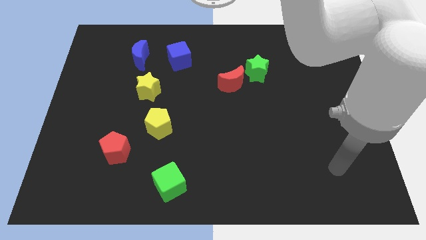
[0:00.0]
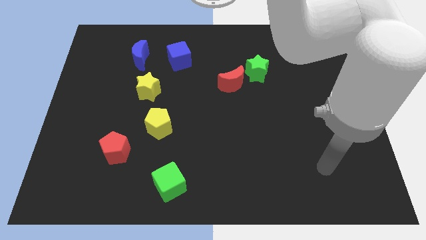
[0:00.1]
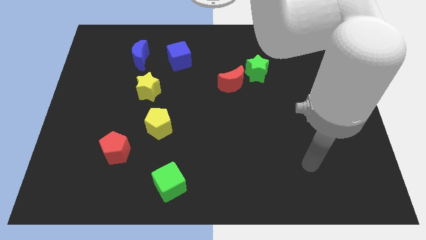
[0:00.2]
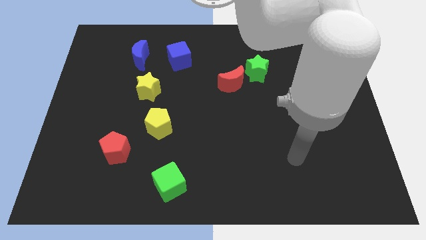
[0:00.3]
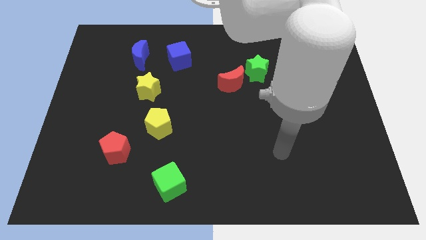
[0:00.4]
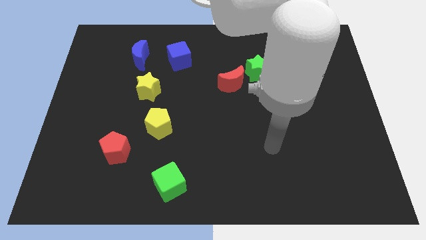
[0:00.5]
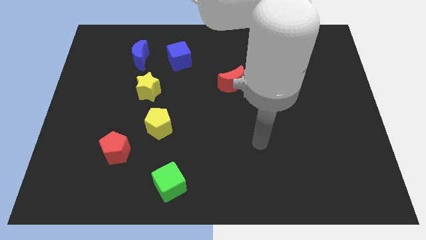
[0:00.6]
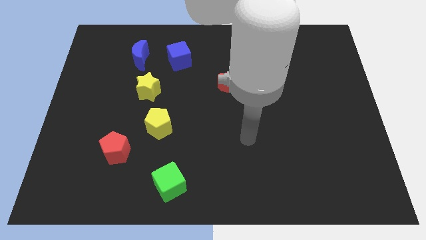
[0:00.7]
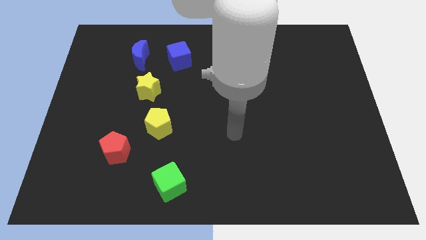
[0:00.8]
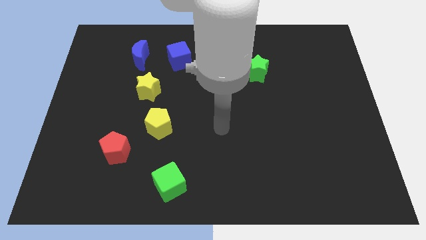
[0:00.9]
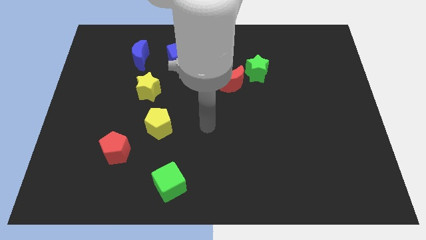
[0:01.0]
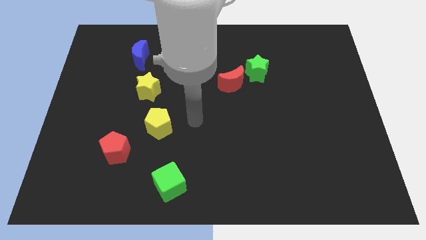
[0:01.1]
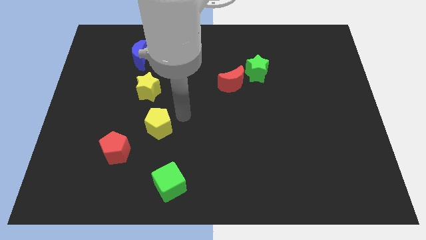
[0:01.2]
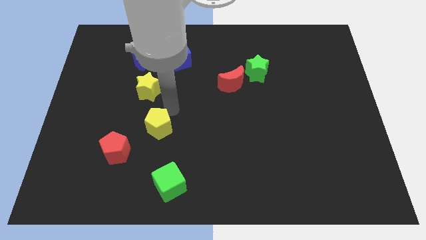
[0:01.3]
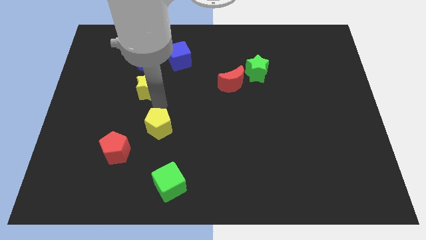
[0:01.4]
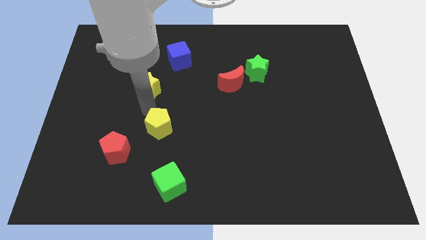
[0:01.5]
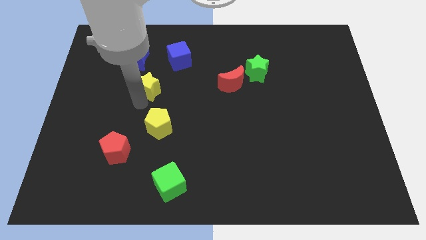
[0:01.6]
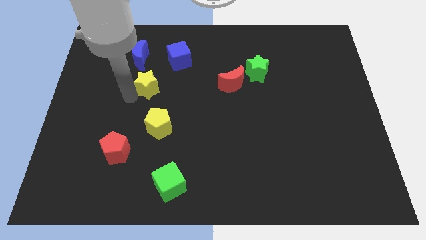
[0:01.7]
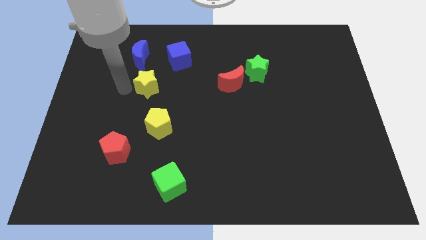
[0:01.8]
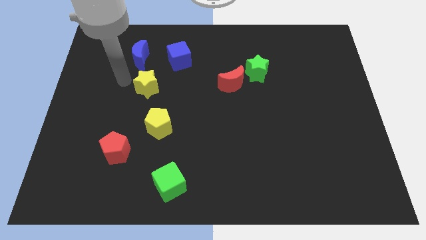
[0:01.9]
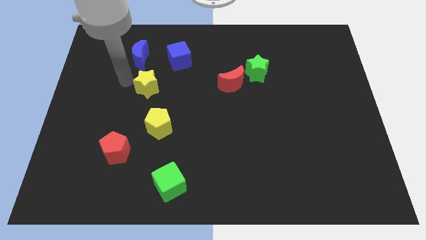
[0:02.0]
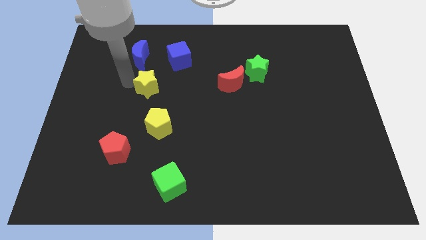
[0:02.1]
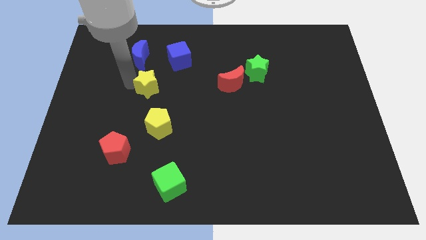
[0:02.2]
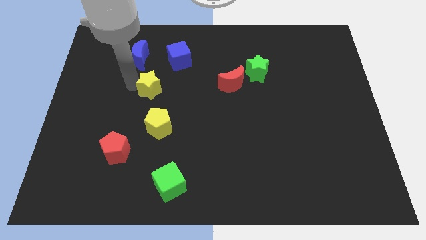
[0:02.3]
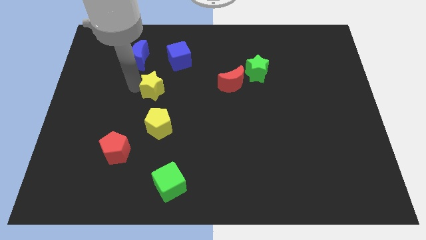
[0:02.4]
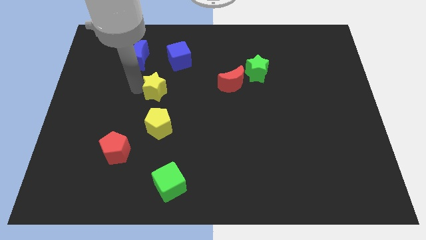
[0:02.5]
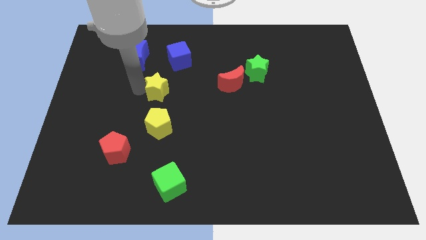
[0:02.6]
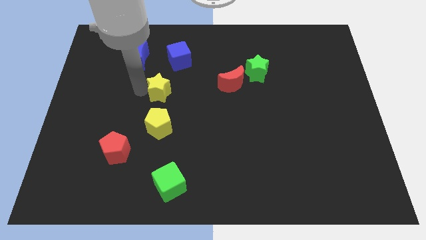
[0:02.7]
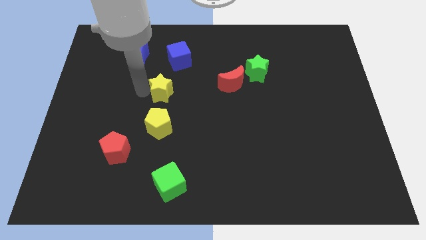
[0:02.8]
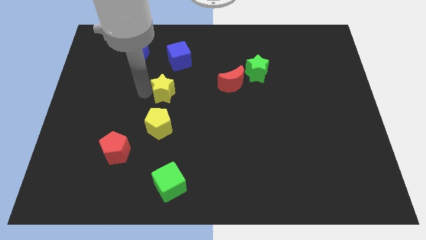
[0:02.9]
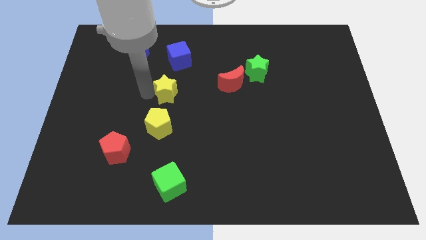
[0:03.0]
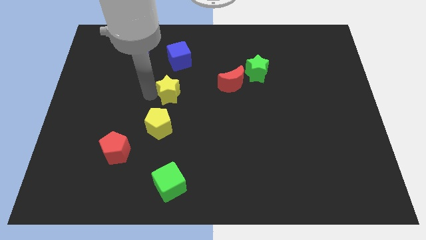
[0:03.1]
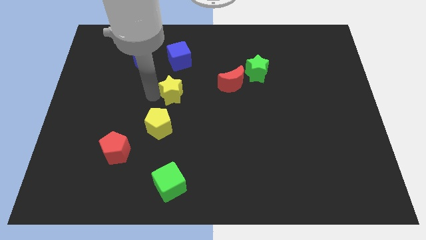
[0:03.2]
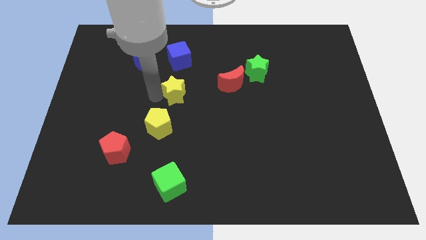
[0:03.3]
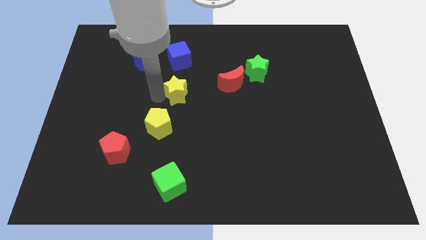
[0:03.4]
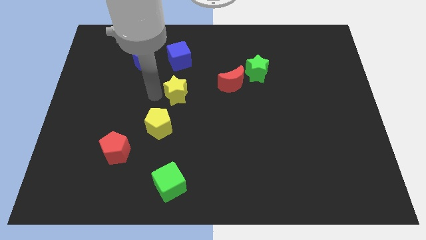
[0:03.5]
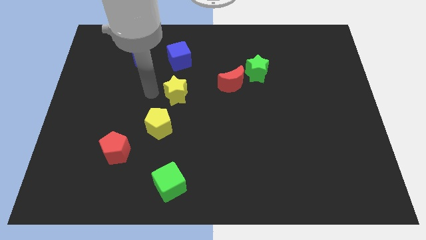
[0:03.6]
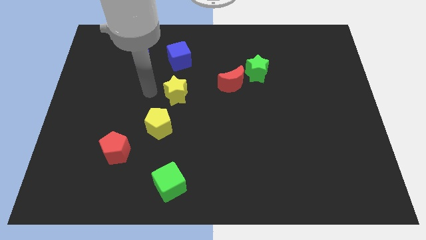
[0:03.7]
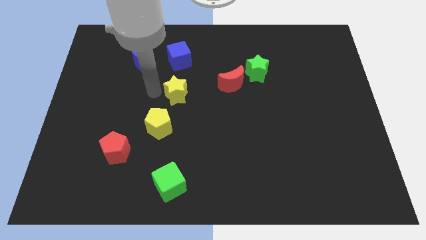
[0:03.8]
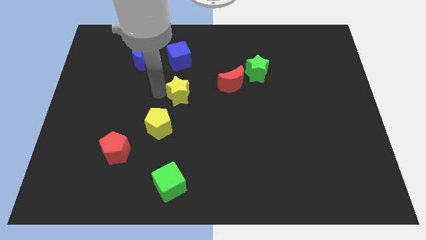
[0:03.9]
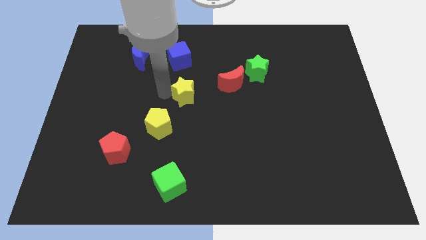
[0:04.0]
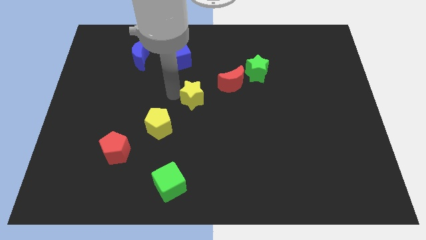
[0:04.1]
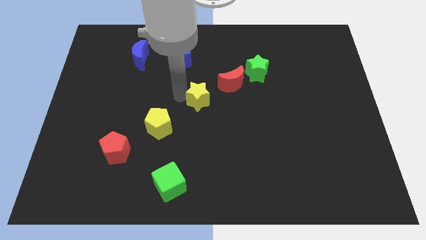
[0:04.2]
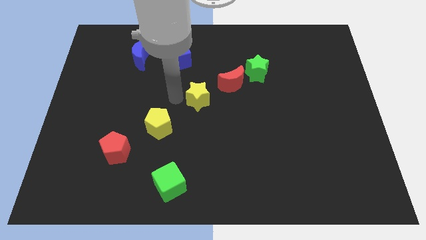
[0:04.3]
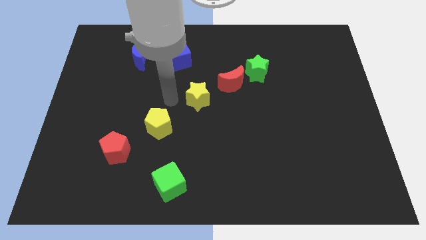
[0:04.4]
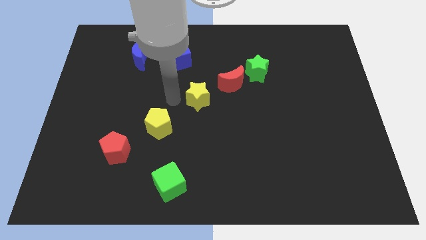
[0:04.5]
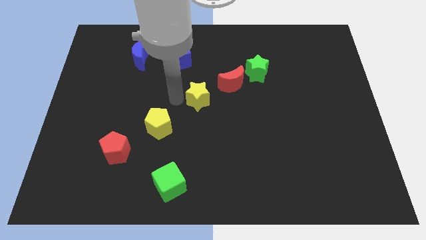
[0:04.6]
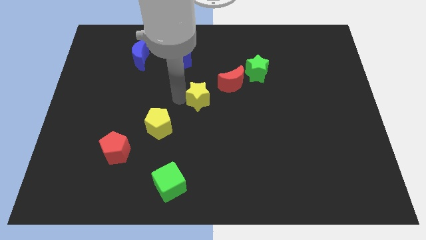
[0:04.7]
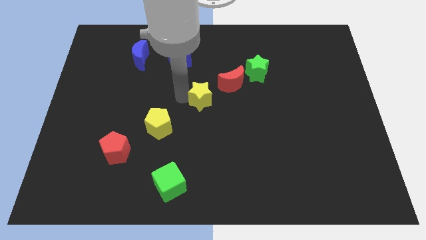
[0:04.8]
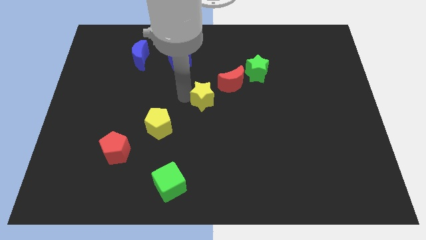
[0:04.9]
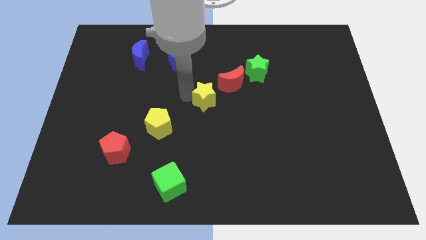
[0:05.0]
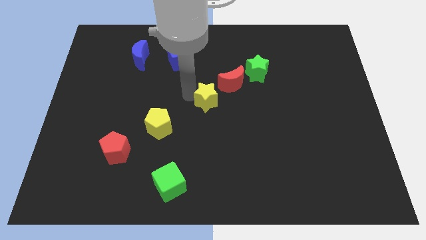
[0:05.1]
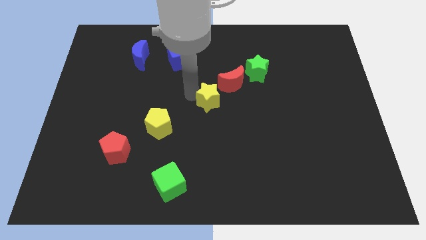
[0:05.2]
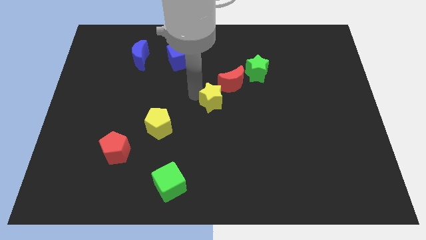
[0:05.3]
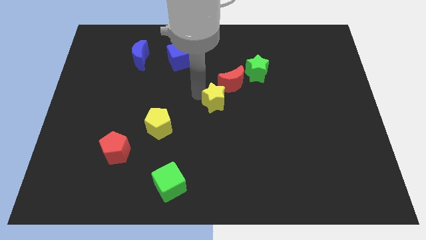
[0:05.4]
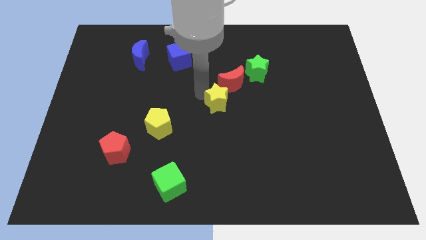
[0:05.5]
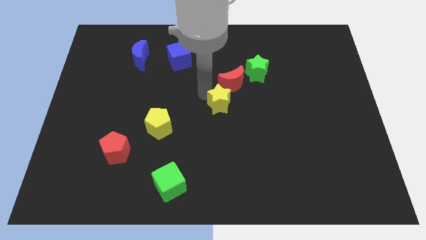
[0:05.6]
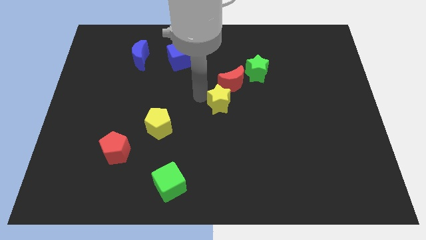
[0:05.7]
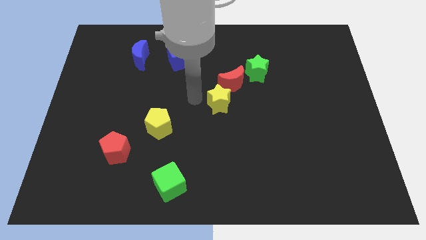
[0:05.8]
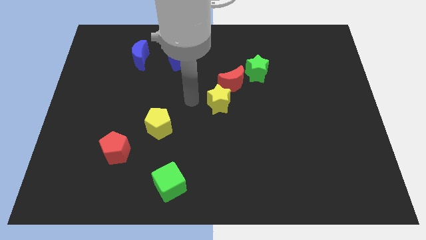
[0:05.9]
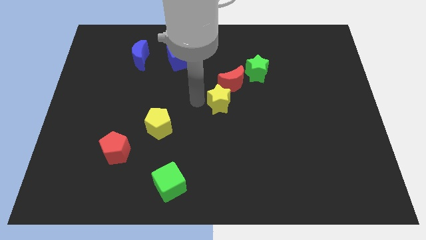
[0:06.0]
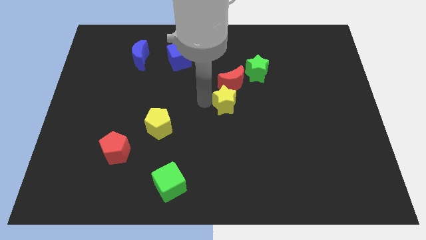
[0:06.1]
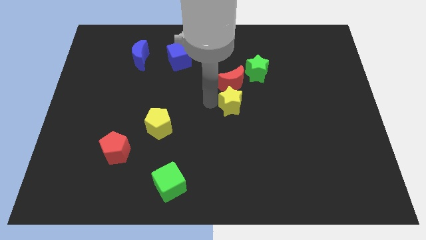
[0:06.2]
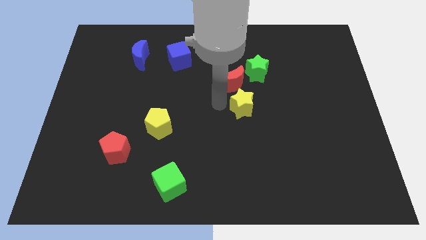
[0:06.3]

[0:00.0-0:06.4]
push the yellow star right

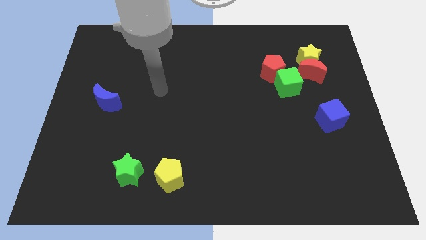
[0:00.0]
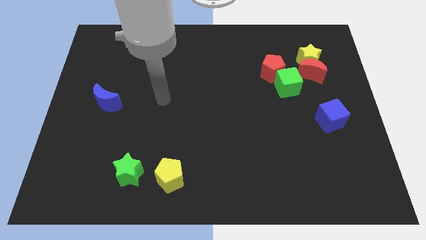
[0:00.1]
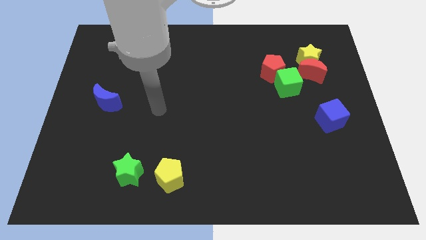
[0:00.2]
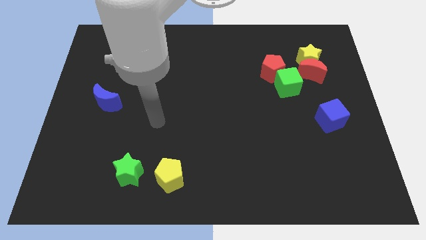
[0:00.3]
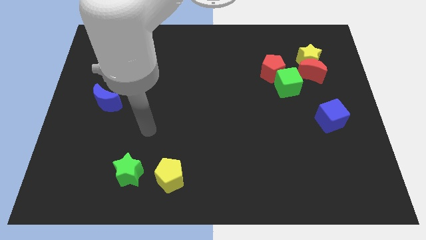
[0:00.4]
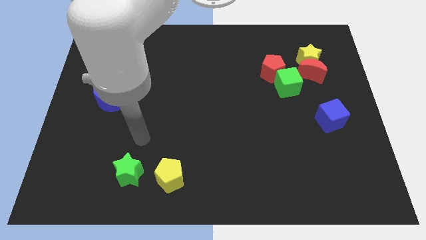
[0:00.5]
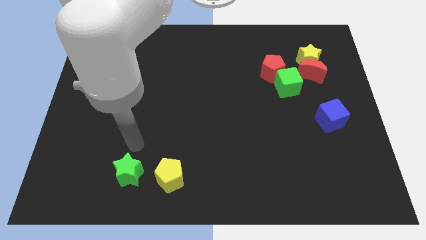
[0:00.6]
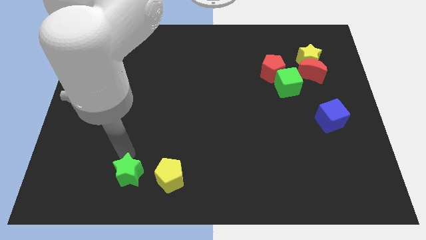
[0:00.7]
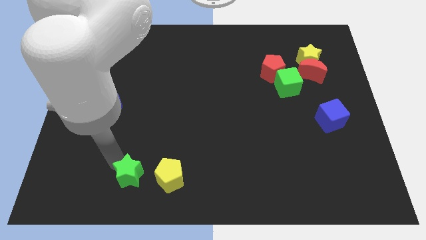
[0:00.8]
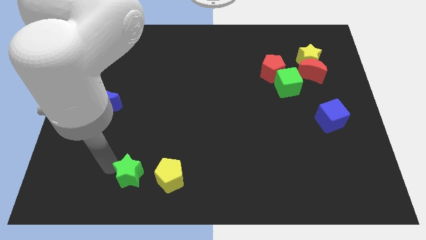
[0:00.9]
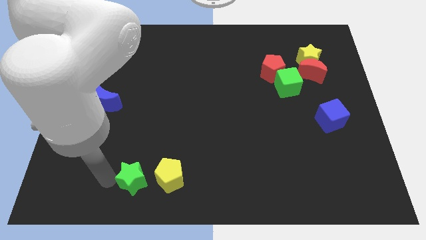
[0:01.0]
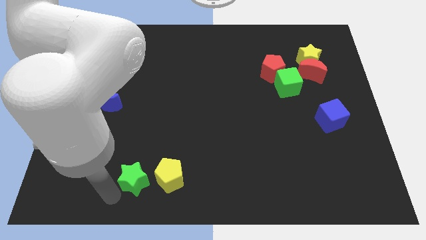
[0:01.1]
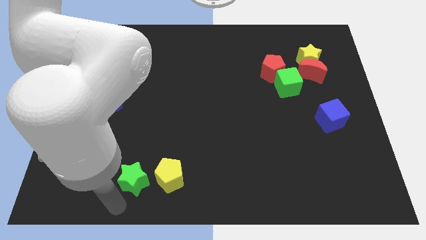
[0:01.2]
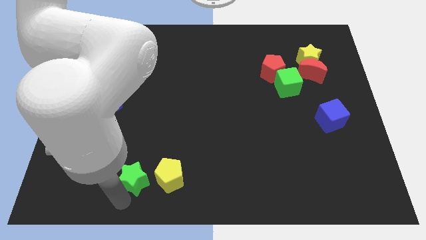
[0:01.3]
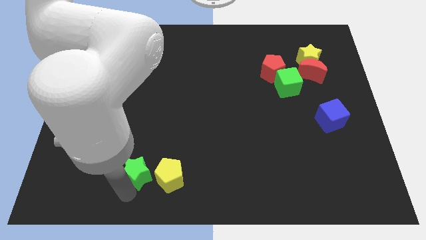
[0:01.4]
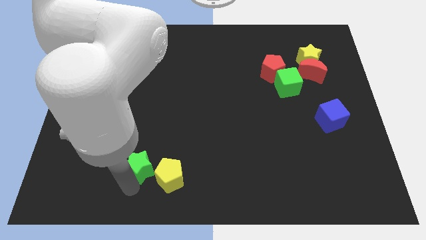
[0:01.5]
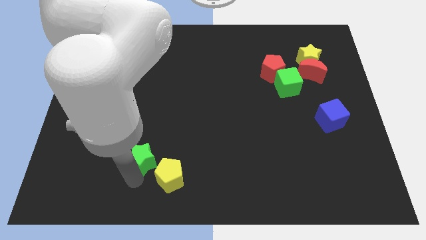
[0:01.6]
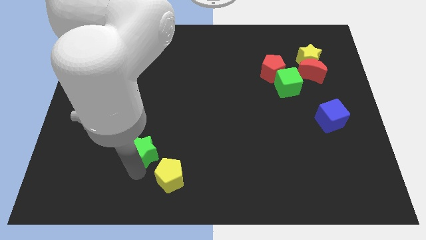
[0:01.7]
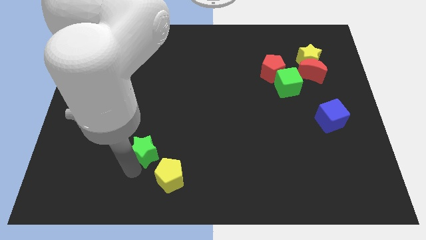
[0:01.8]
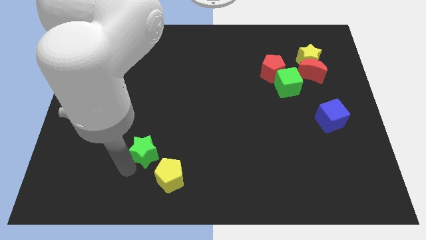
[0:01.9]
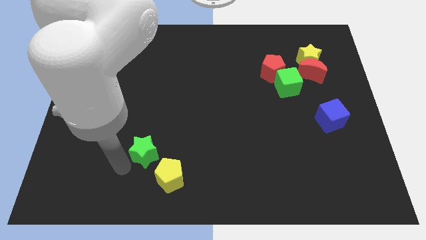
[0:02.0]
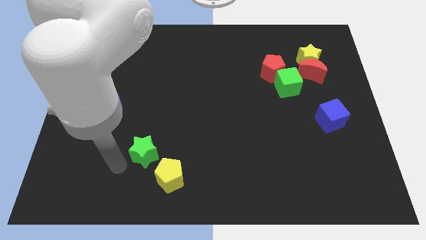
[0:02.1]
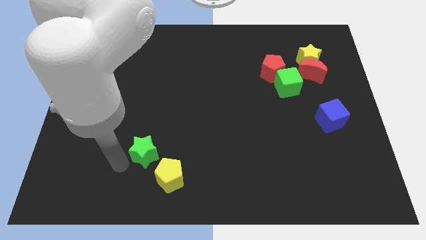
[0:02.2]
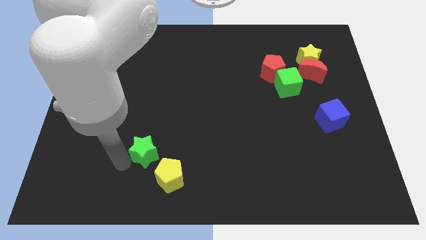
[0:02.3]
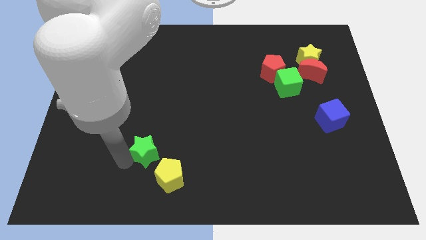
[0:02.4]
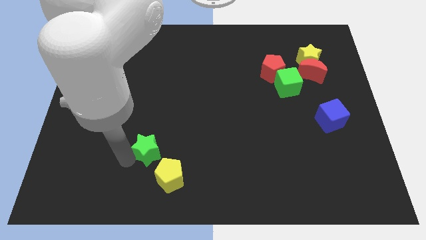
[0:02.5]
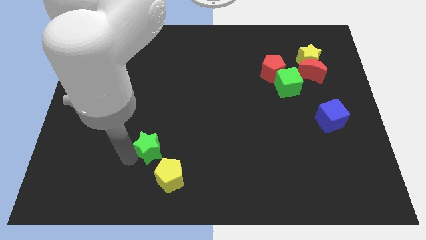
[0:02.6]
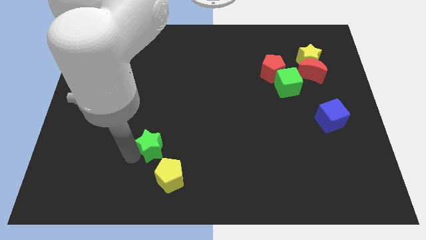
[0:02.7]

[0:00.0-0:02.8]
slightly move the green star upwards and then to the right
